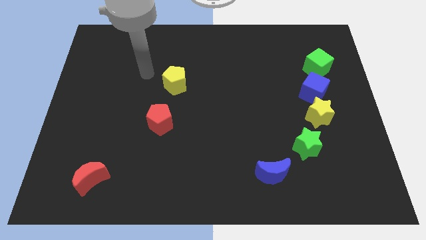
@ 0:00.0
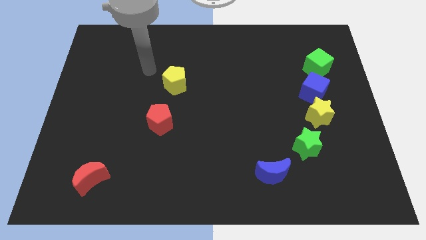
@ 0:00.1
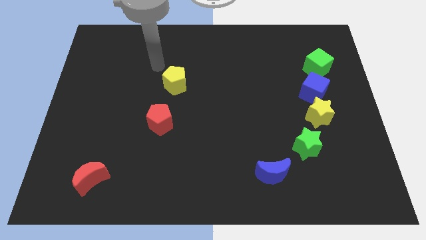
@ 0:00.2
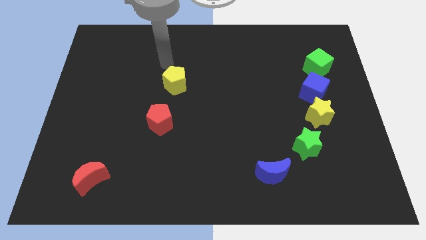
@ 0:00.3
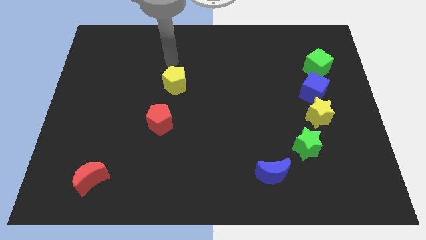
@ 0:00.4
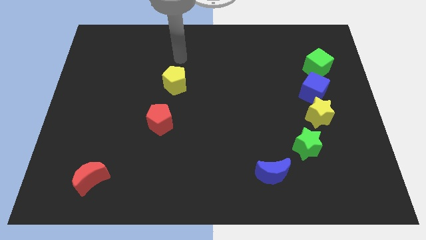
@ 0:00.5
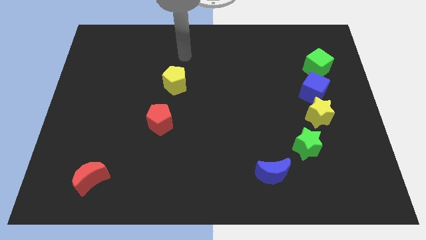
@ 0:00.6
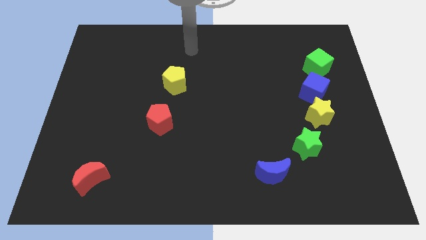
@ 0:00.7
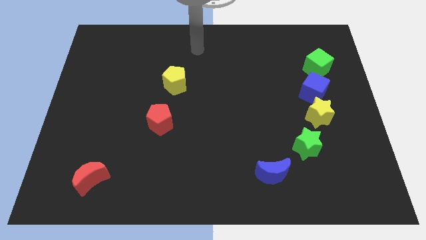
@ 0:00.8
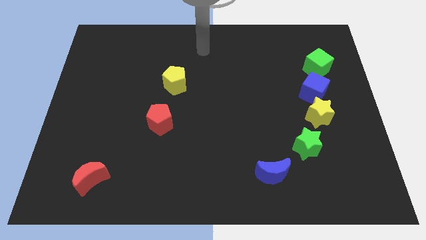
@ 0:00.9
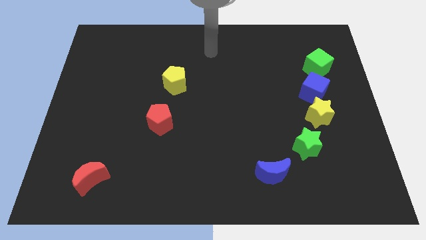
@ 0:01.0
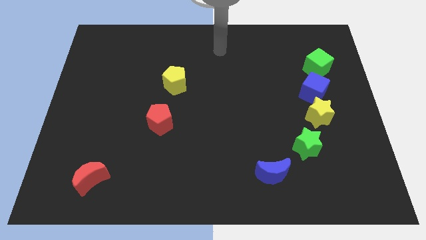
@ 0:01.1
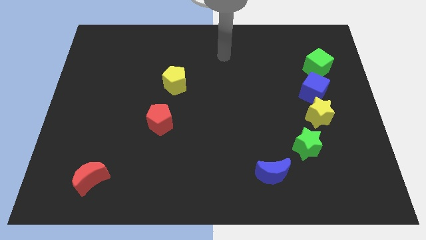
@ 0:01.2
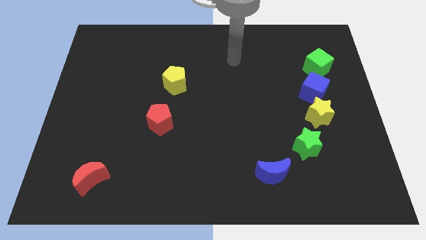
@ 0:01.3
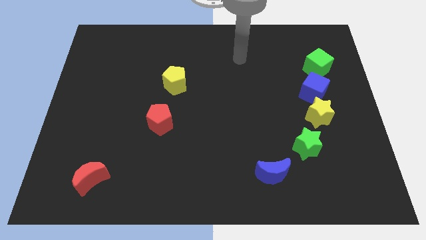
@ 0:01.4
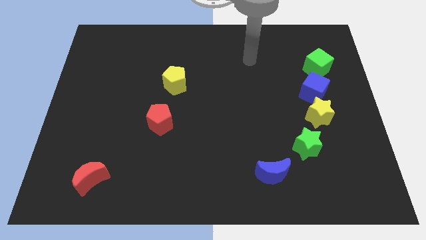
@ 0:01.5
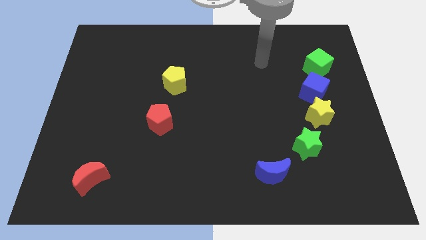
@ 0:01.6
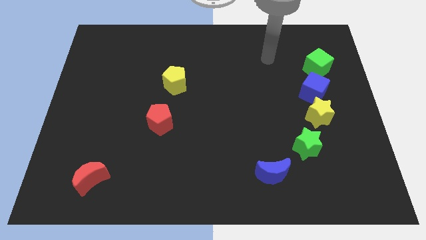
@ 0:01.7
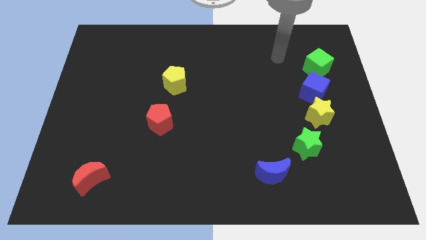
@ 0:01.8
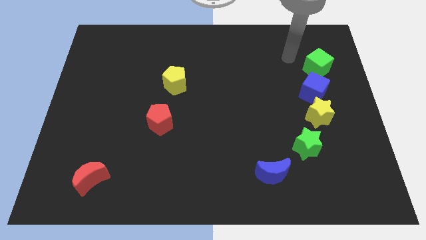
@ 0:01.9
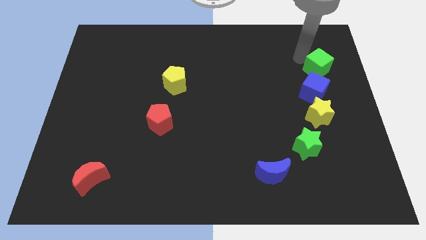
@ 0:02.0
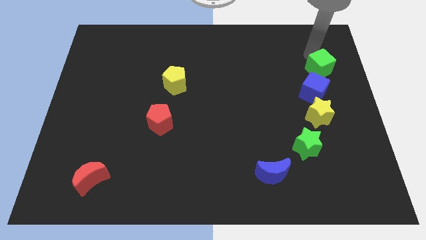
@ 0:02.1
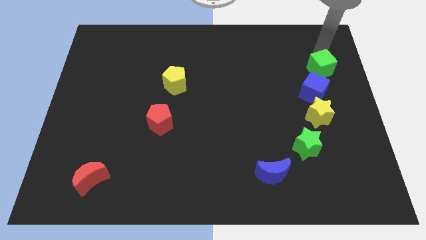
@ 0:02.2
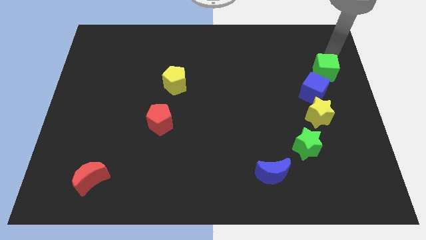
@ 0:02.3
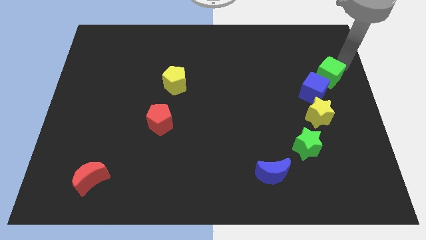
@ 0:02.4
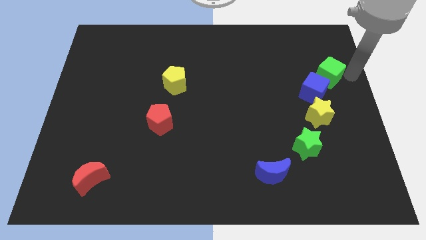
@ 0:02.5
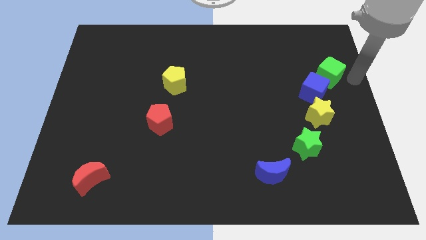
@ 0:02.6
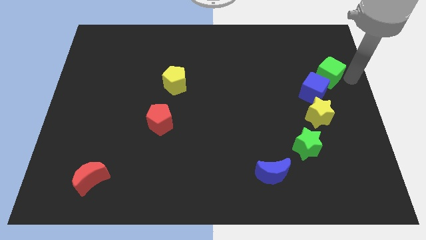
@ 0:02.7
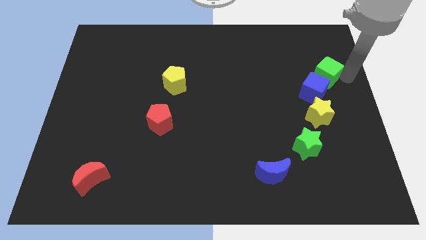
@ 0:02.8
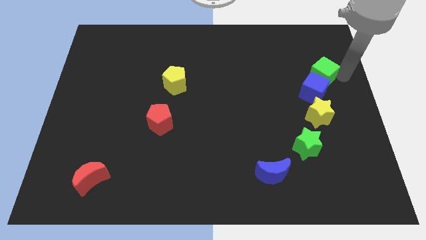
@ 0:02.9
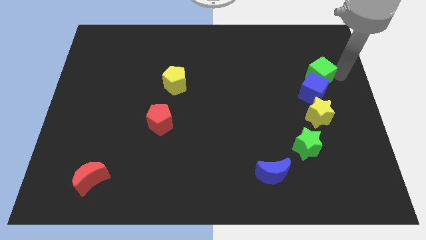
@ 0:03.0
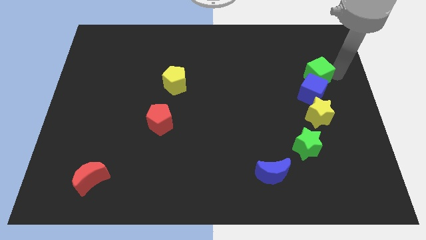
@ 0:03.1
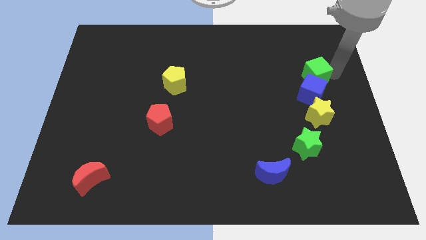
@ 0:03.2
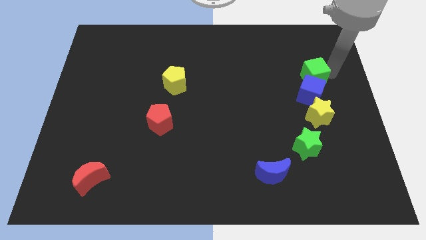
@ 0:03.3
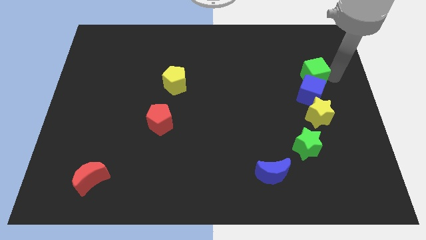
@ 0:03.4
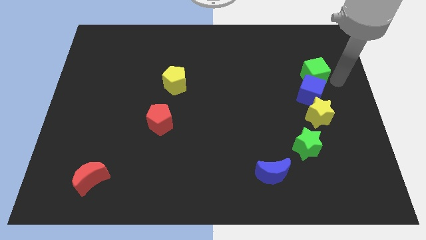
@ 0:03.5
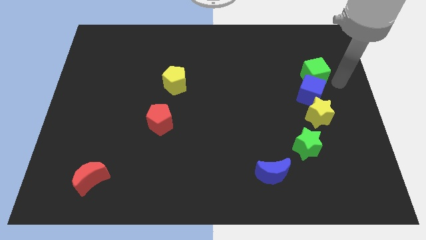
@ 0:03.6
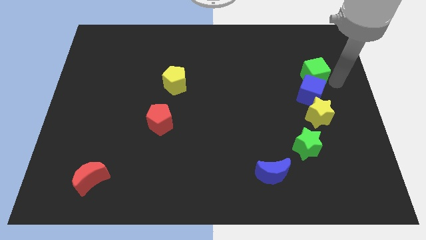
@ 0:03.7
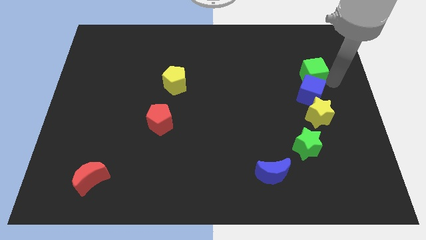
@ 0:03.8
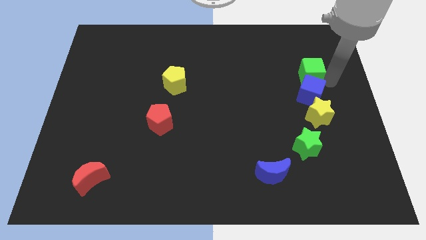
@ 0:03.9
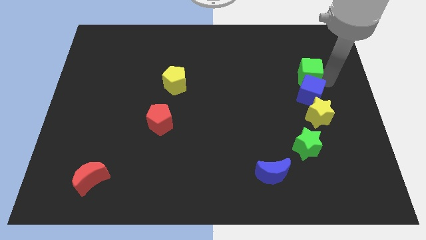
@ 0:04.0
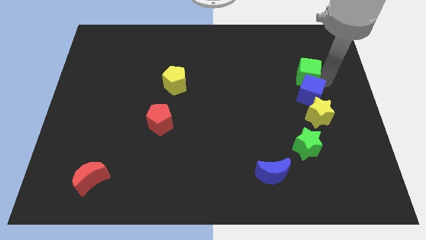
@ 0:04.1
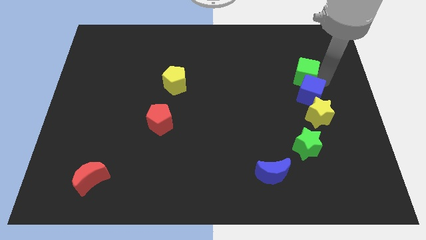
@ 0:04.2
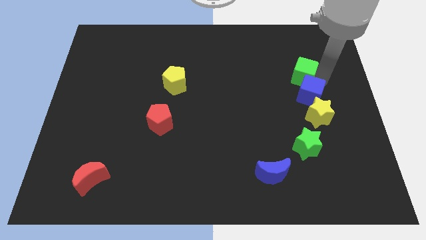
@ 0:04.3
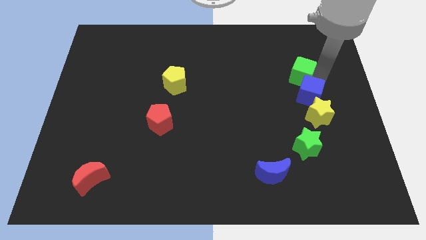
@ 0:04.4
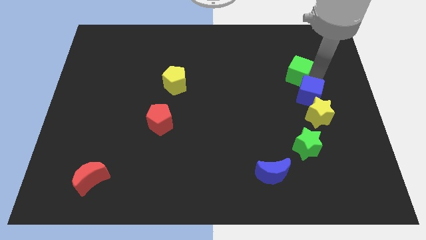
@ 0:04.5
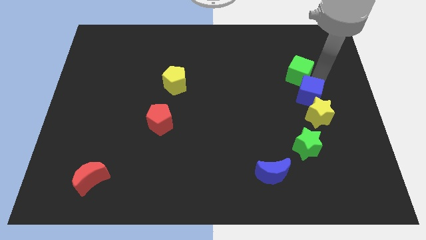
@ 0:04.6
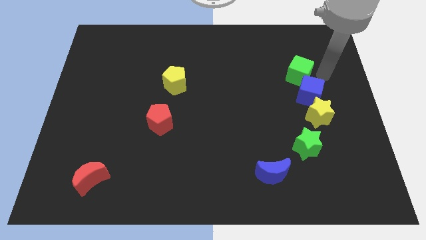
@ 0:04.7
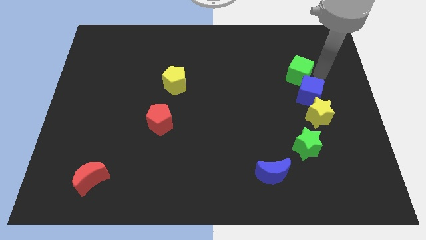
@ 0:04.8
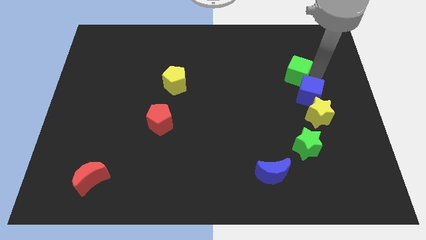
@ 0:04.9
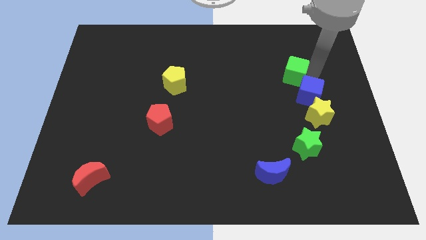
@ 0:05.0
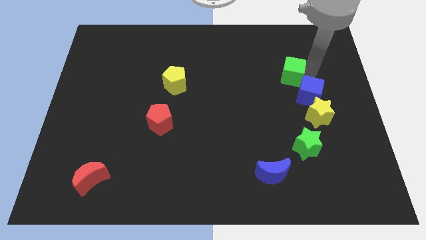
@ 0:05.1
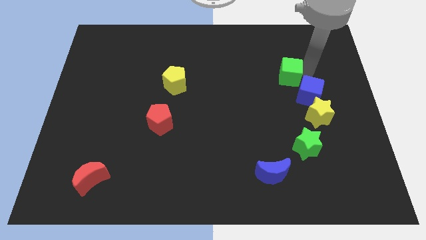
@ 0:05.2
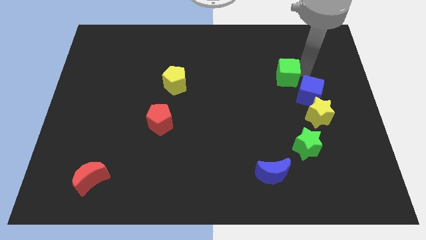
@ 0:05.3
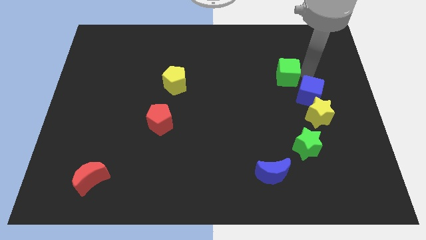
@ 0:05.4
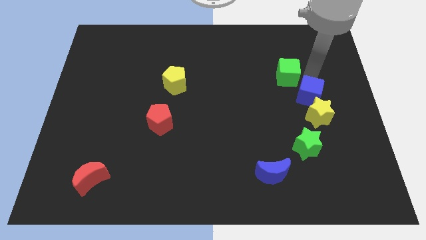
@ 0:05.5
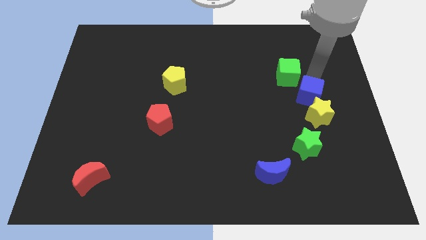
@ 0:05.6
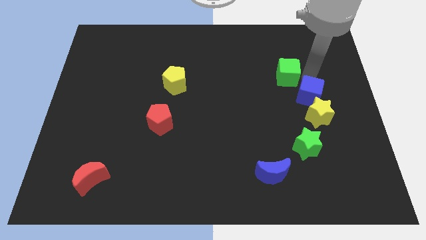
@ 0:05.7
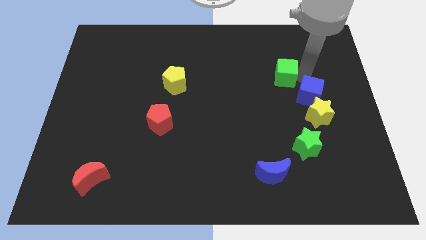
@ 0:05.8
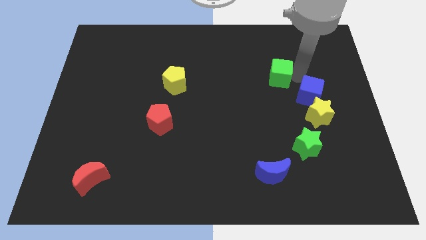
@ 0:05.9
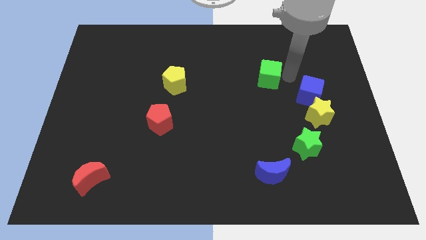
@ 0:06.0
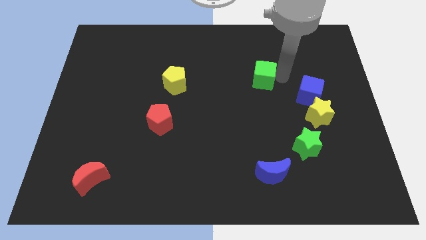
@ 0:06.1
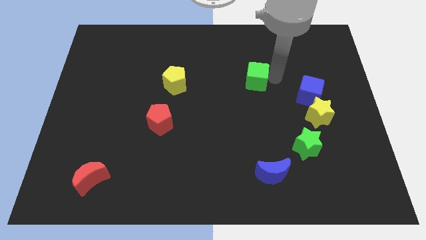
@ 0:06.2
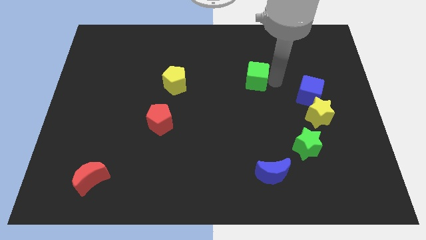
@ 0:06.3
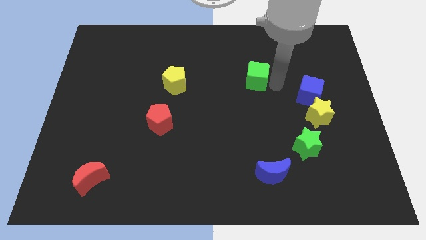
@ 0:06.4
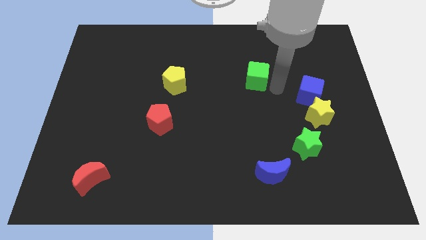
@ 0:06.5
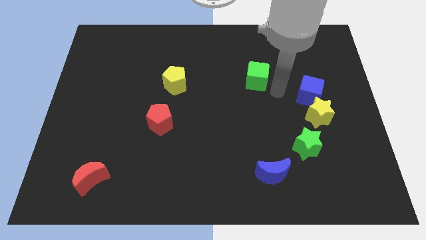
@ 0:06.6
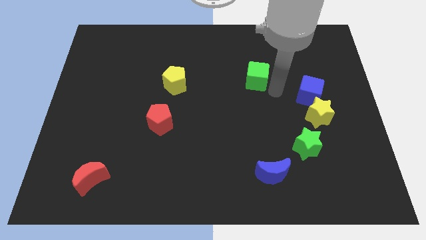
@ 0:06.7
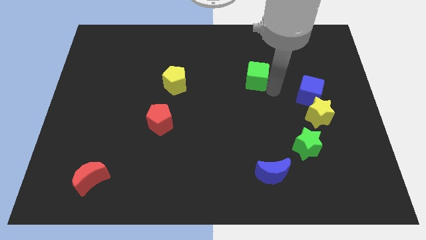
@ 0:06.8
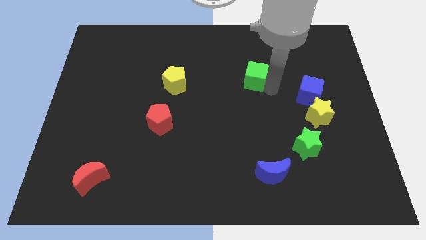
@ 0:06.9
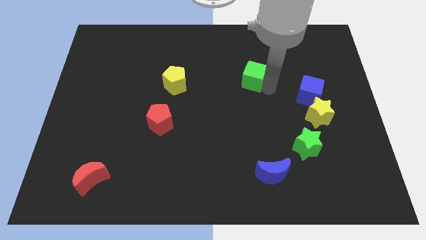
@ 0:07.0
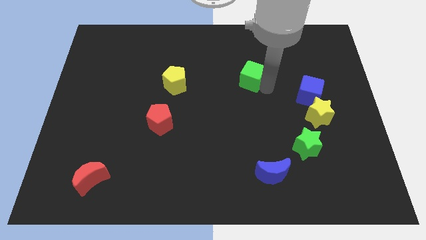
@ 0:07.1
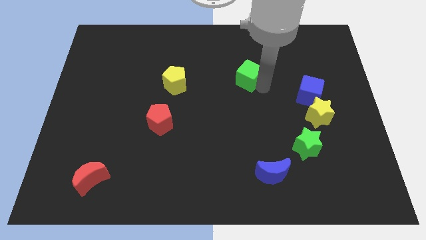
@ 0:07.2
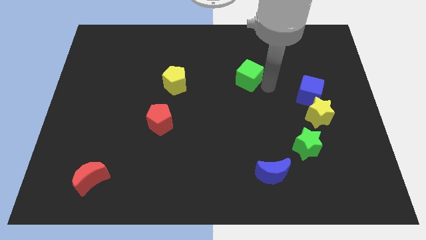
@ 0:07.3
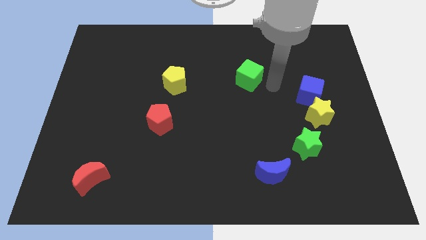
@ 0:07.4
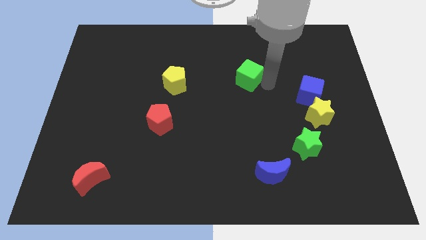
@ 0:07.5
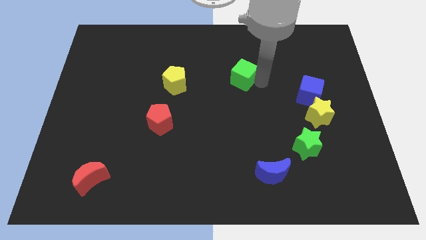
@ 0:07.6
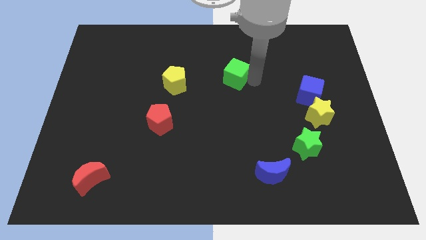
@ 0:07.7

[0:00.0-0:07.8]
move the green cube left

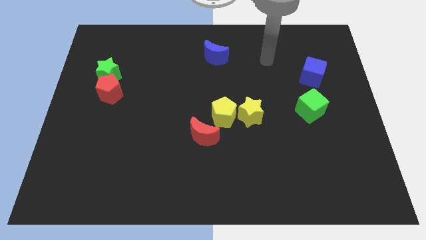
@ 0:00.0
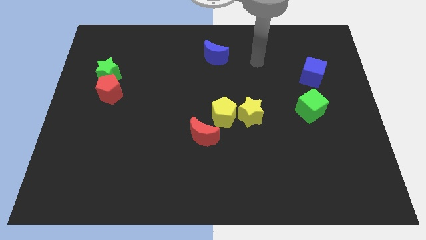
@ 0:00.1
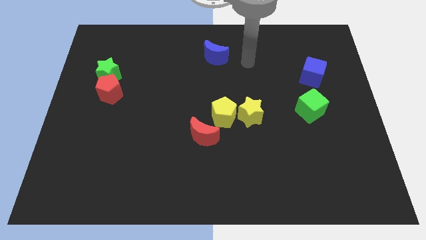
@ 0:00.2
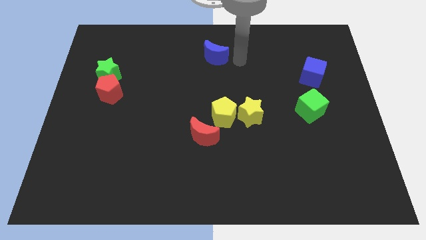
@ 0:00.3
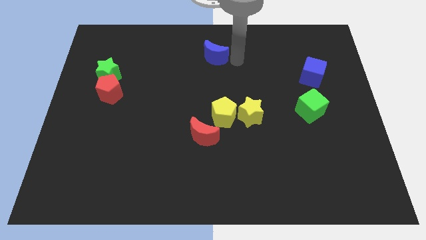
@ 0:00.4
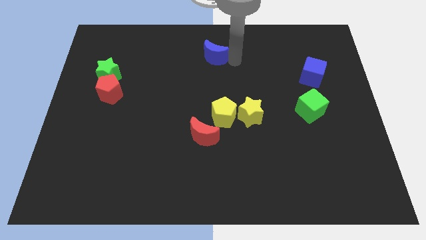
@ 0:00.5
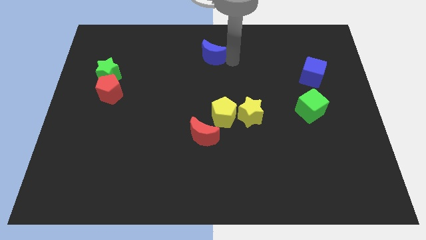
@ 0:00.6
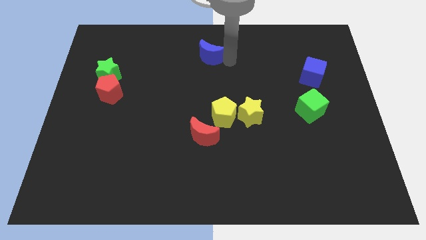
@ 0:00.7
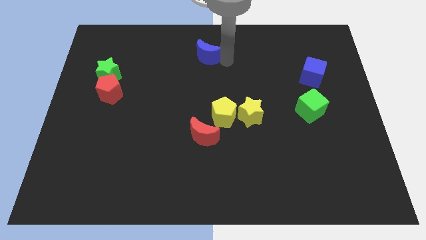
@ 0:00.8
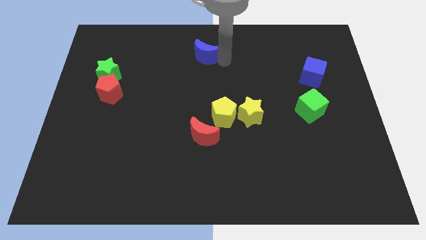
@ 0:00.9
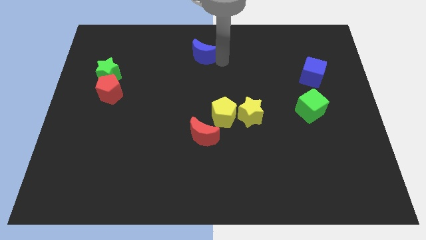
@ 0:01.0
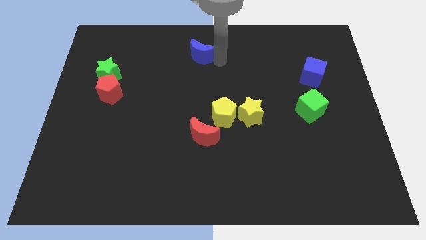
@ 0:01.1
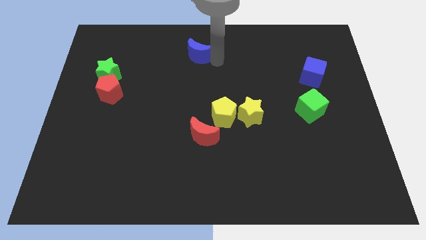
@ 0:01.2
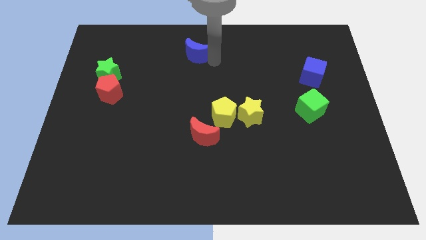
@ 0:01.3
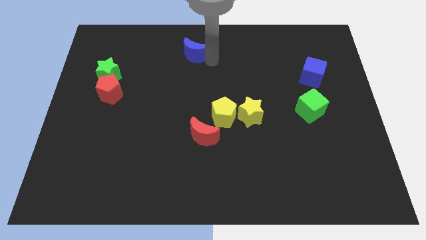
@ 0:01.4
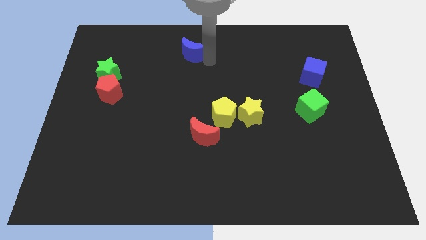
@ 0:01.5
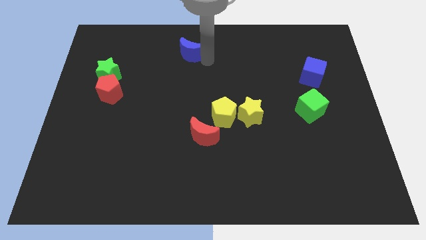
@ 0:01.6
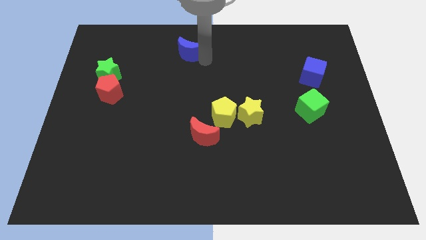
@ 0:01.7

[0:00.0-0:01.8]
move the blue moon left a bit
